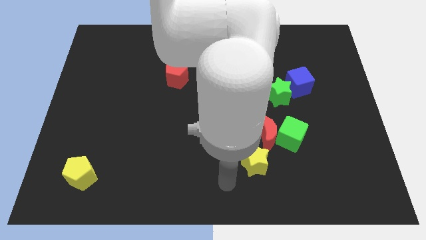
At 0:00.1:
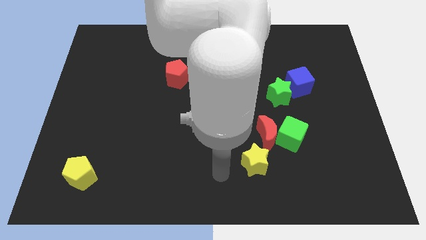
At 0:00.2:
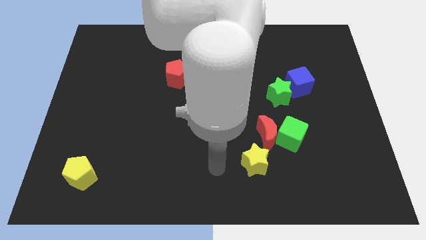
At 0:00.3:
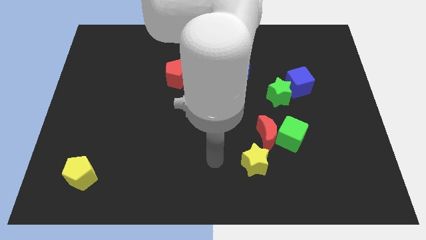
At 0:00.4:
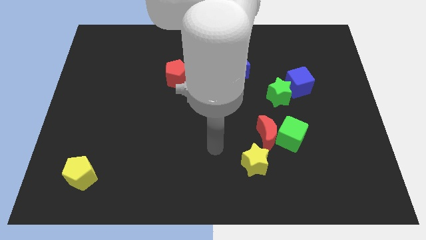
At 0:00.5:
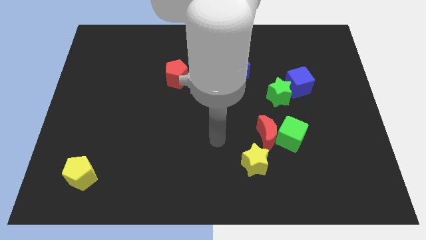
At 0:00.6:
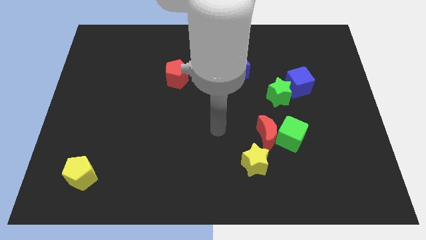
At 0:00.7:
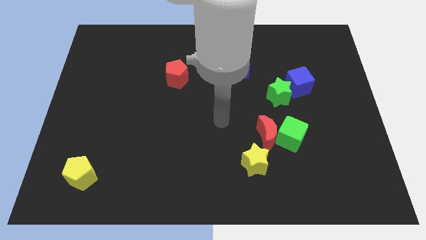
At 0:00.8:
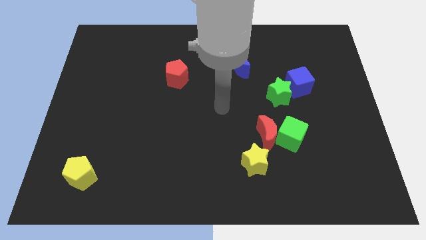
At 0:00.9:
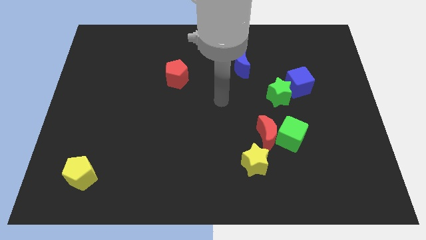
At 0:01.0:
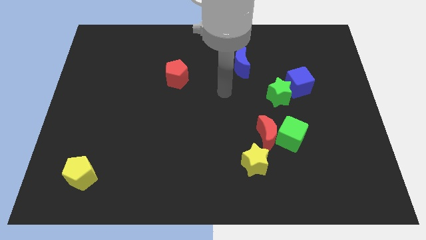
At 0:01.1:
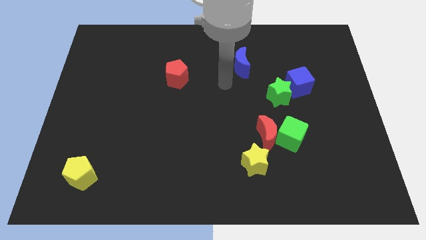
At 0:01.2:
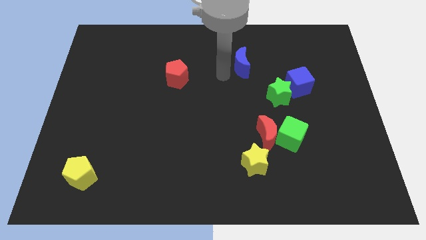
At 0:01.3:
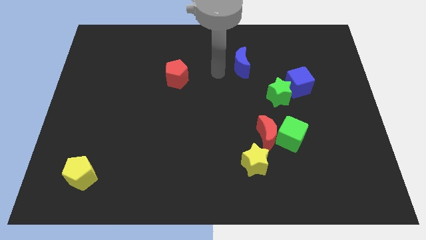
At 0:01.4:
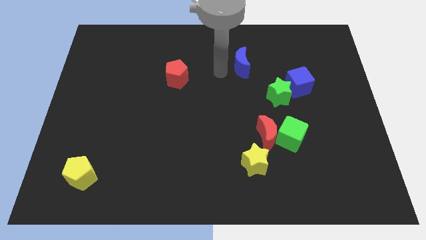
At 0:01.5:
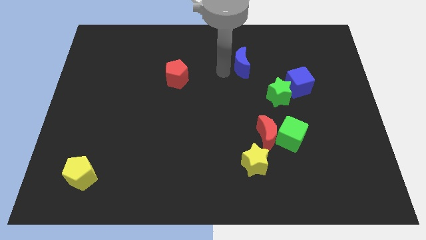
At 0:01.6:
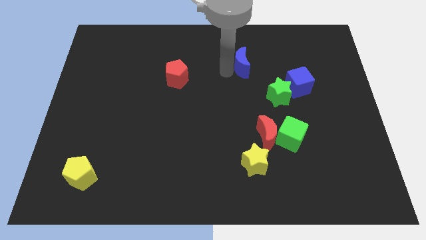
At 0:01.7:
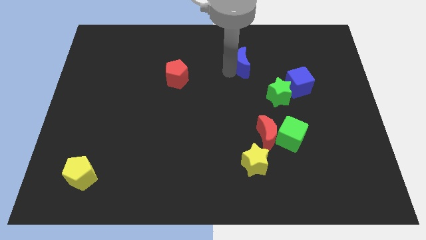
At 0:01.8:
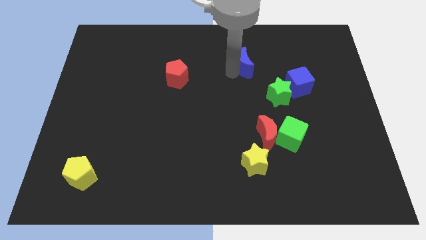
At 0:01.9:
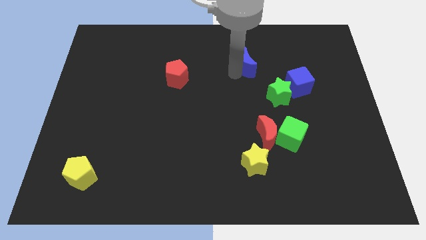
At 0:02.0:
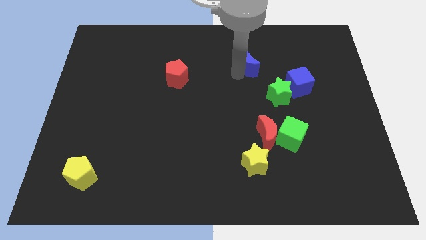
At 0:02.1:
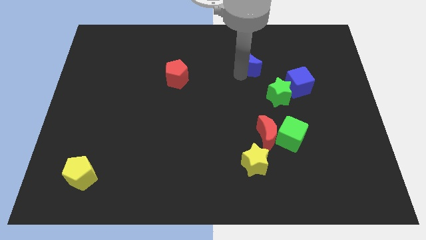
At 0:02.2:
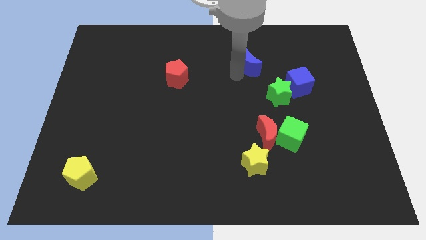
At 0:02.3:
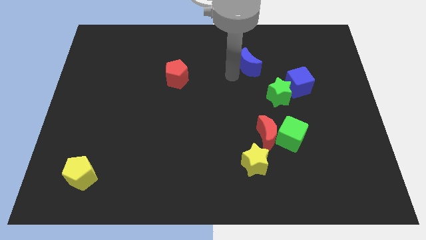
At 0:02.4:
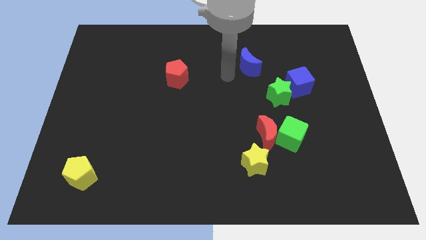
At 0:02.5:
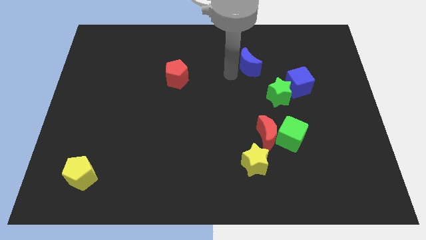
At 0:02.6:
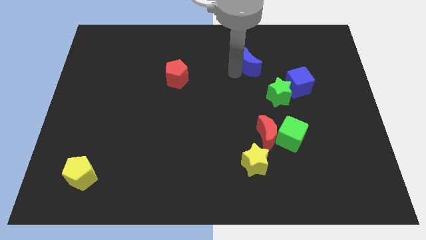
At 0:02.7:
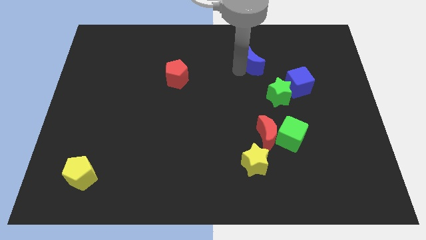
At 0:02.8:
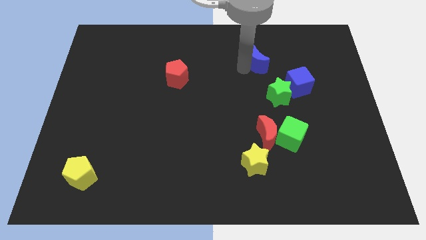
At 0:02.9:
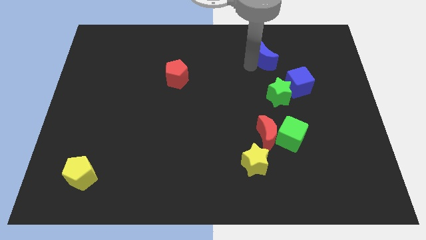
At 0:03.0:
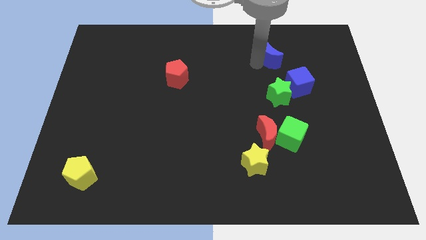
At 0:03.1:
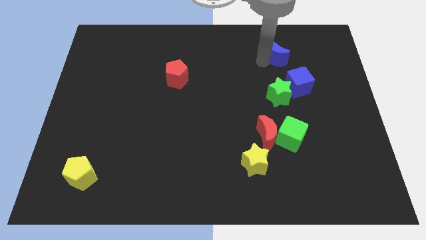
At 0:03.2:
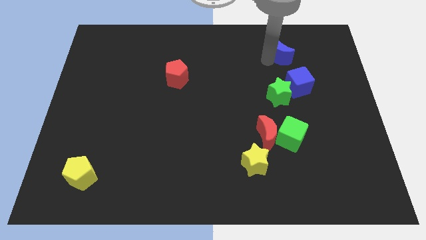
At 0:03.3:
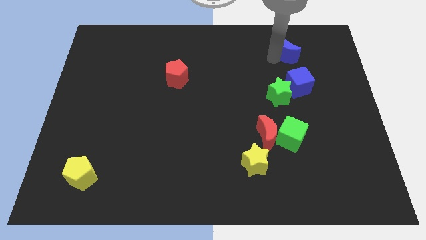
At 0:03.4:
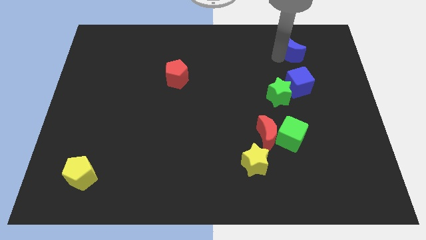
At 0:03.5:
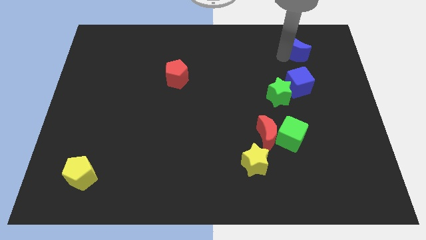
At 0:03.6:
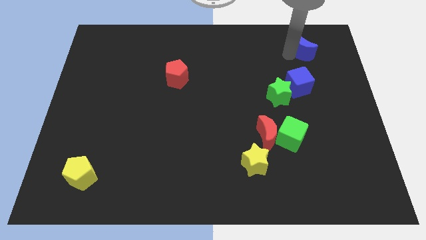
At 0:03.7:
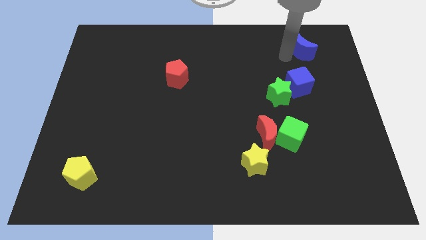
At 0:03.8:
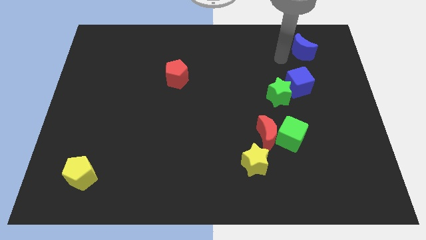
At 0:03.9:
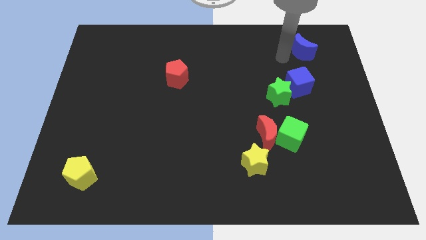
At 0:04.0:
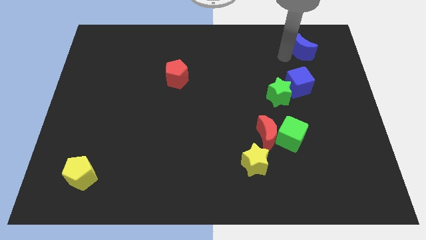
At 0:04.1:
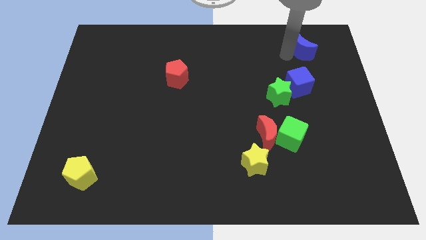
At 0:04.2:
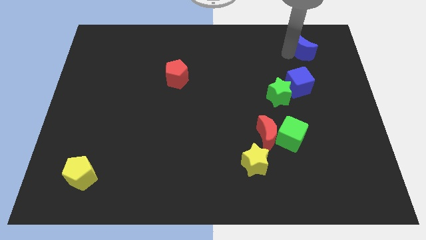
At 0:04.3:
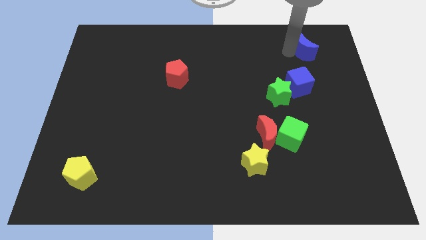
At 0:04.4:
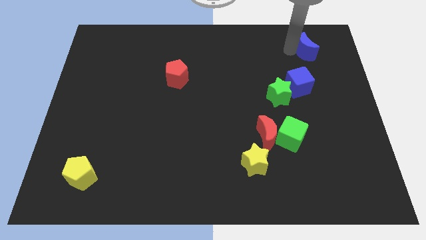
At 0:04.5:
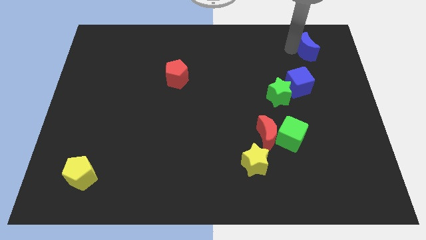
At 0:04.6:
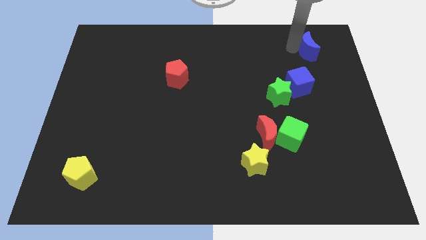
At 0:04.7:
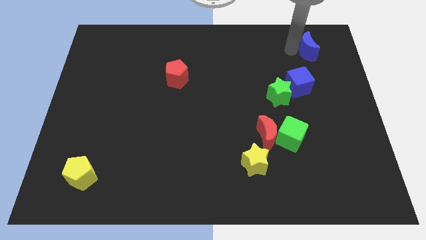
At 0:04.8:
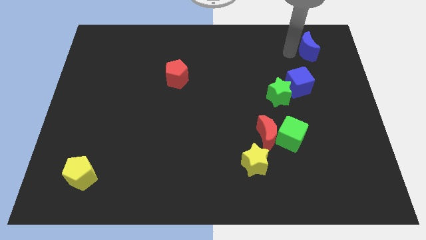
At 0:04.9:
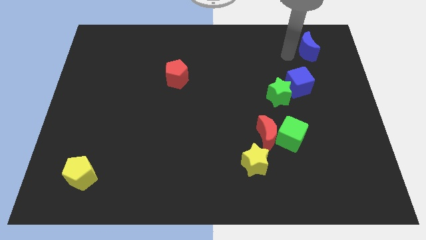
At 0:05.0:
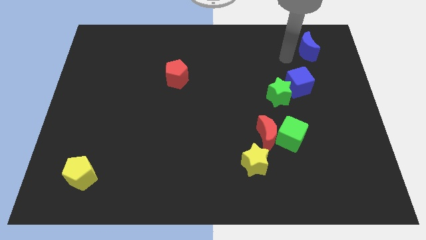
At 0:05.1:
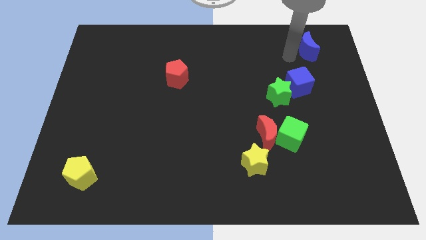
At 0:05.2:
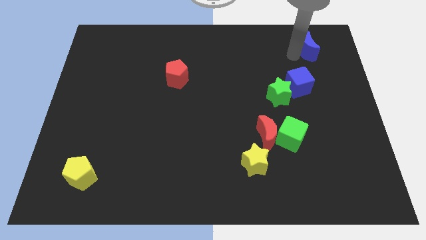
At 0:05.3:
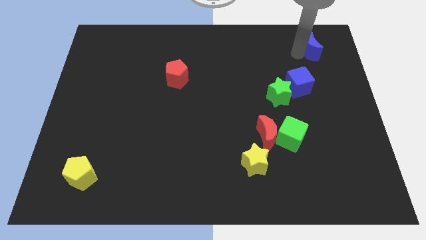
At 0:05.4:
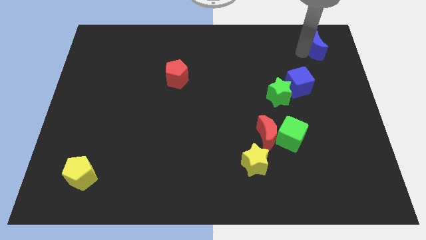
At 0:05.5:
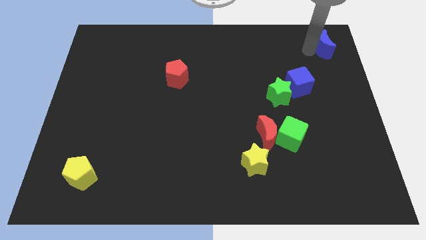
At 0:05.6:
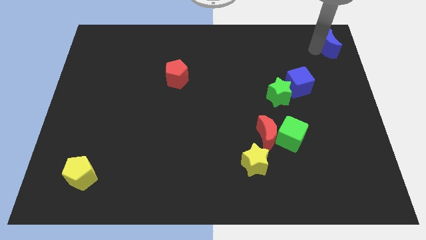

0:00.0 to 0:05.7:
move the blue moon to the top right
